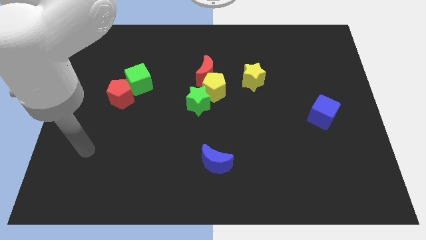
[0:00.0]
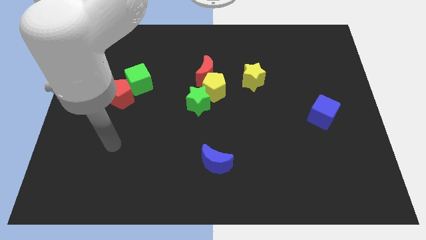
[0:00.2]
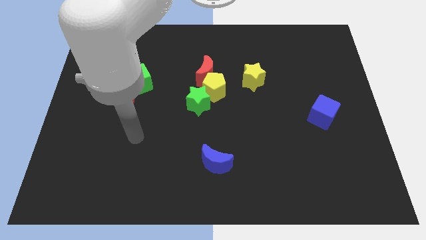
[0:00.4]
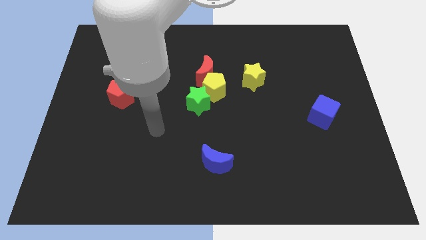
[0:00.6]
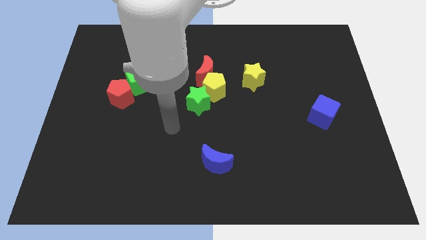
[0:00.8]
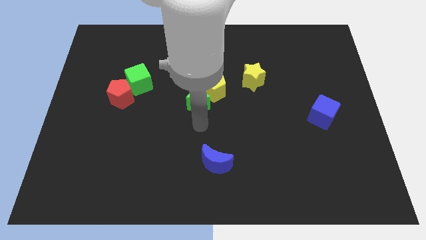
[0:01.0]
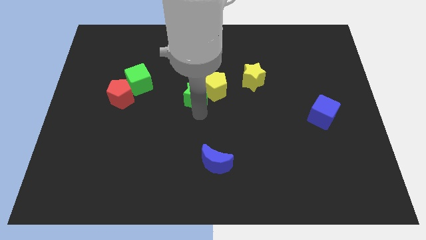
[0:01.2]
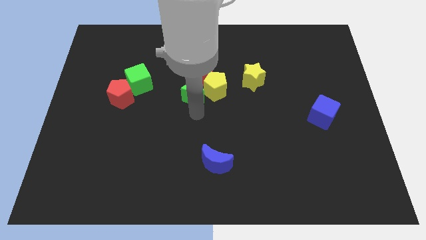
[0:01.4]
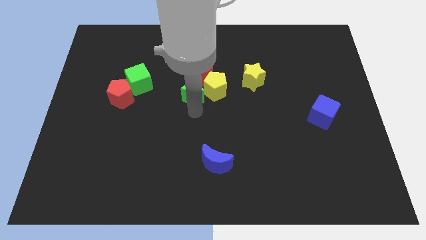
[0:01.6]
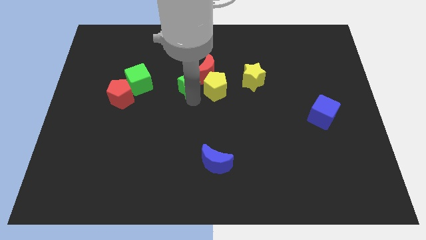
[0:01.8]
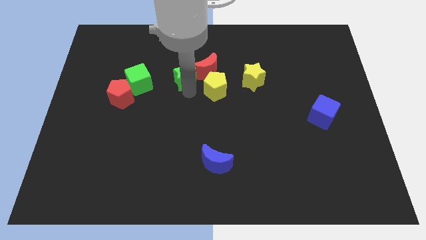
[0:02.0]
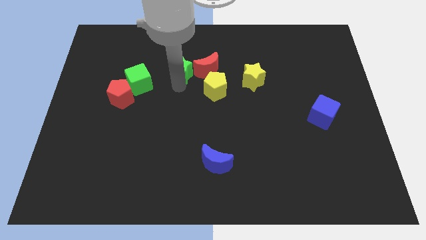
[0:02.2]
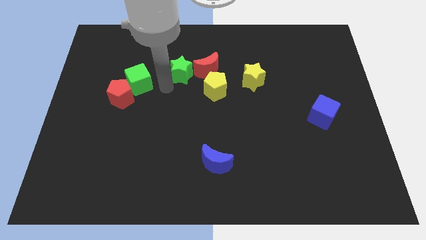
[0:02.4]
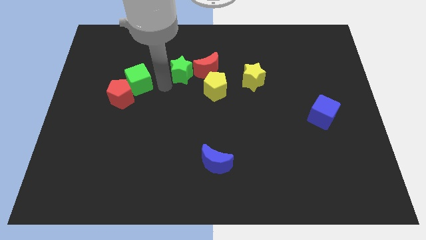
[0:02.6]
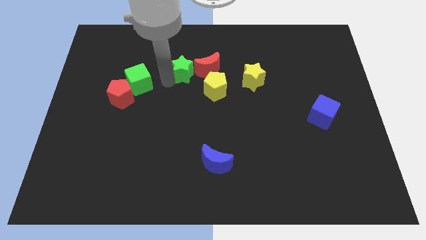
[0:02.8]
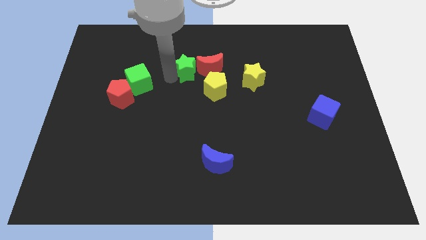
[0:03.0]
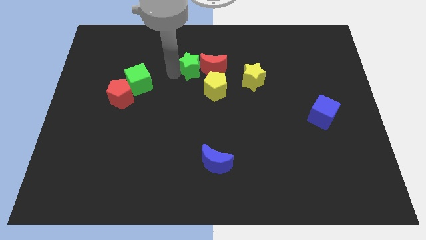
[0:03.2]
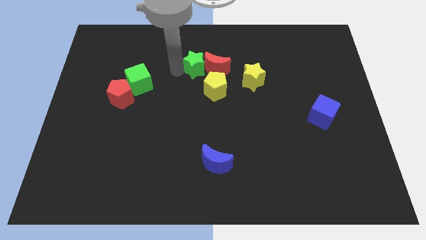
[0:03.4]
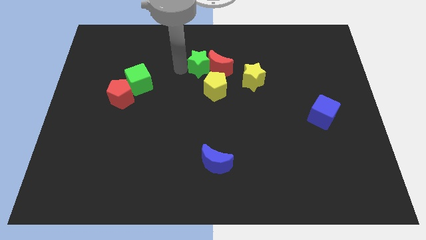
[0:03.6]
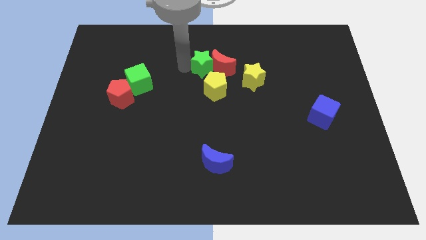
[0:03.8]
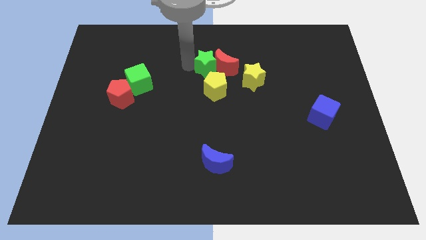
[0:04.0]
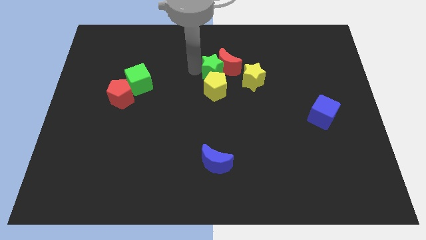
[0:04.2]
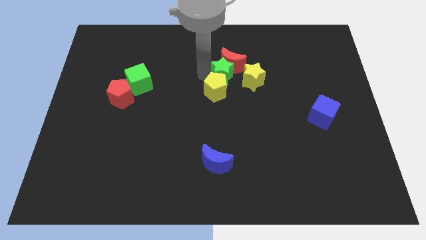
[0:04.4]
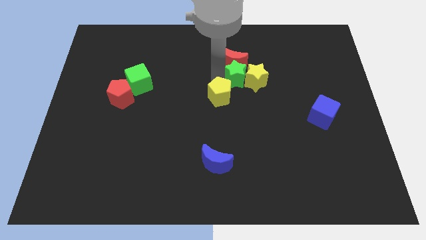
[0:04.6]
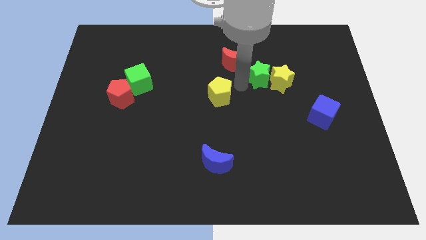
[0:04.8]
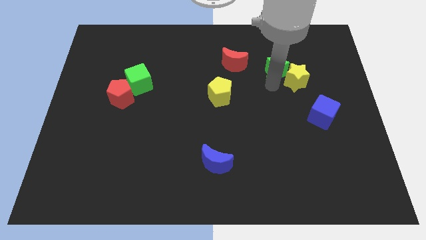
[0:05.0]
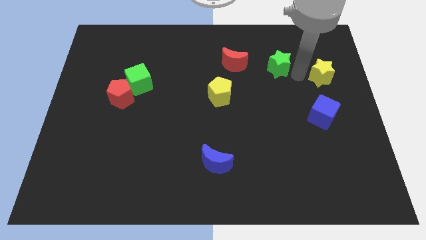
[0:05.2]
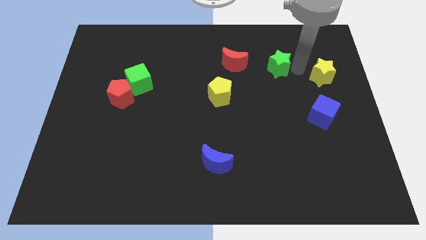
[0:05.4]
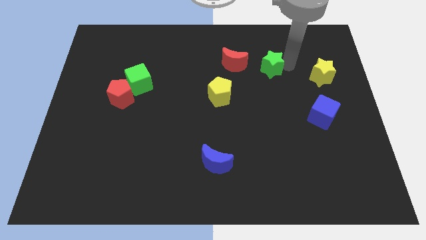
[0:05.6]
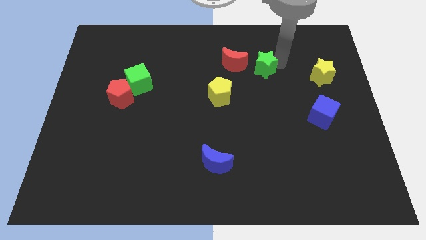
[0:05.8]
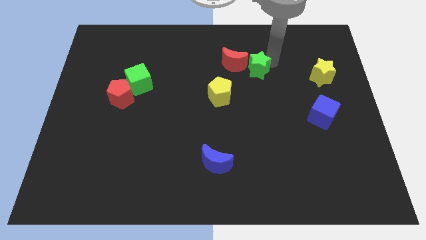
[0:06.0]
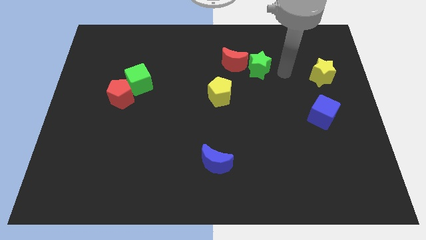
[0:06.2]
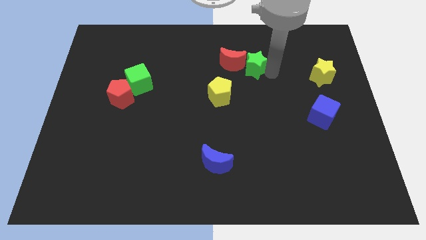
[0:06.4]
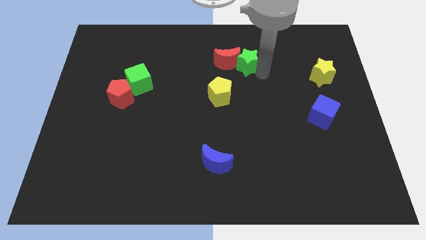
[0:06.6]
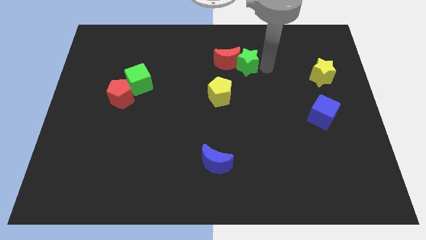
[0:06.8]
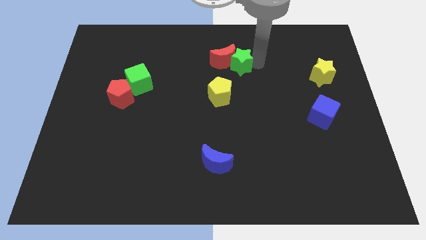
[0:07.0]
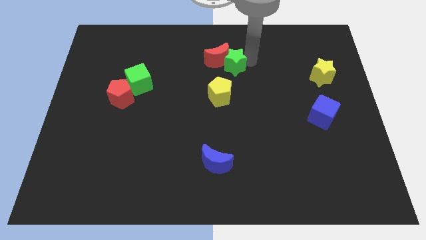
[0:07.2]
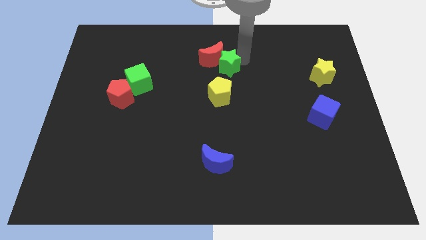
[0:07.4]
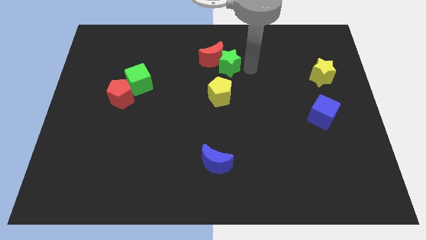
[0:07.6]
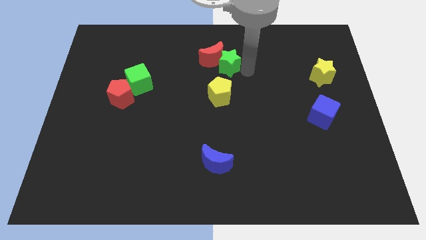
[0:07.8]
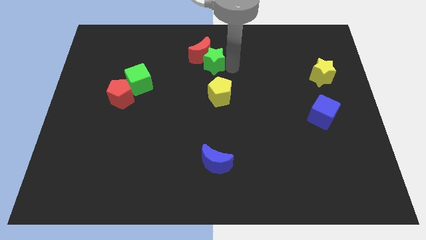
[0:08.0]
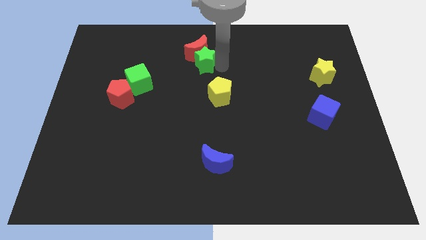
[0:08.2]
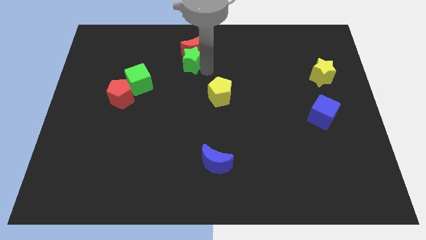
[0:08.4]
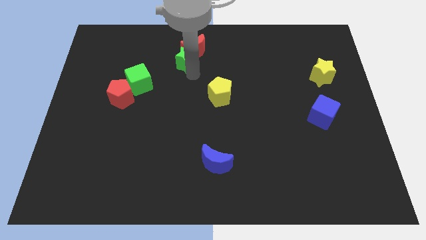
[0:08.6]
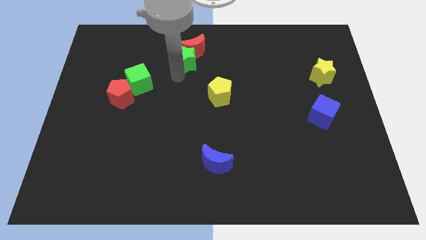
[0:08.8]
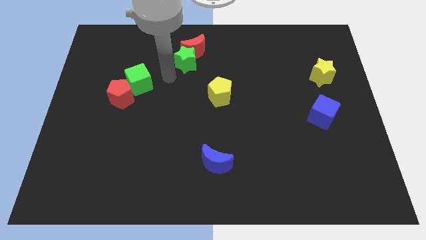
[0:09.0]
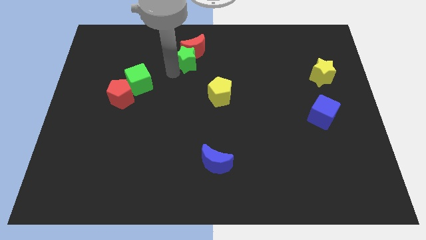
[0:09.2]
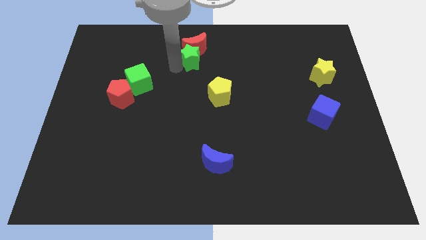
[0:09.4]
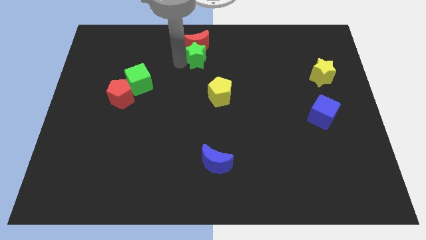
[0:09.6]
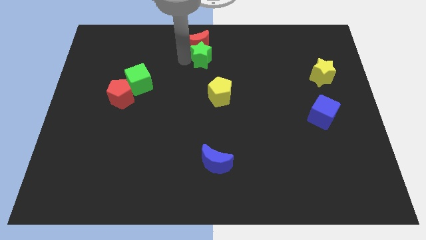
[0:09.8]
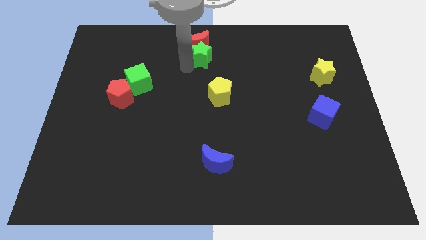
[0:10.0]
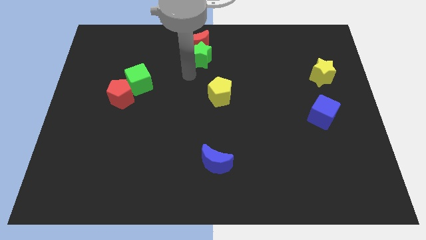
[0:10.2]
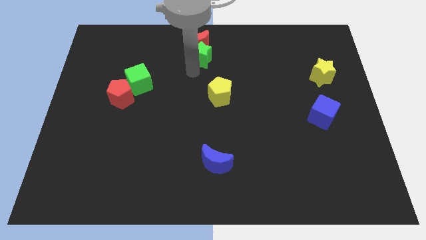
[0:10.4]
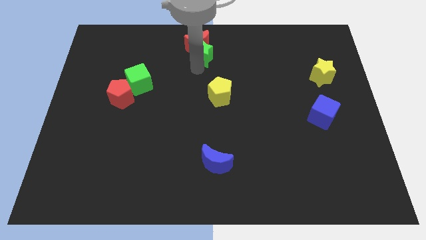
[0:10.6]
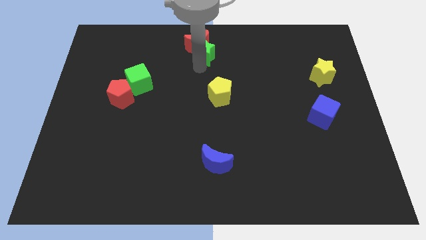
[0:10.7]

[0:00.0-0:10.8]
put the green star to the towards your base

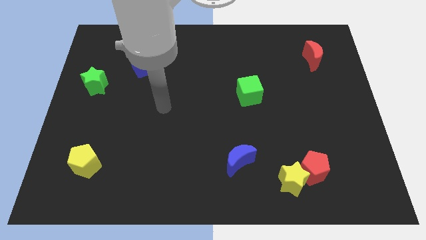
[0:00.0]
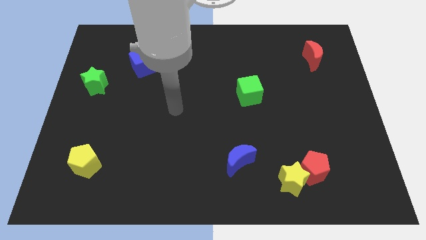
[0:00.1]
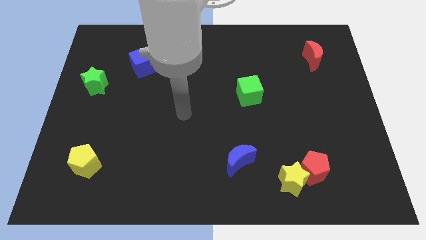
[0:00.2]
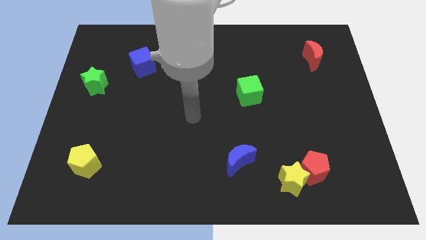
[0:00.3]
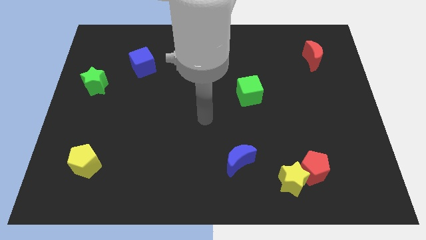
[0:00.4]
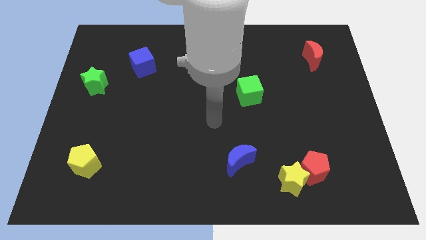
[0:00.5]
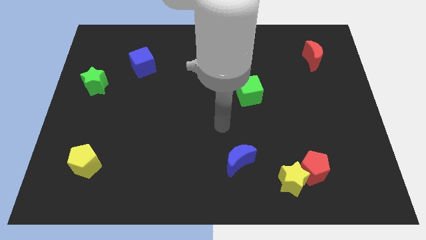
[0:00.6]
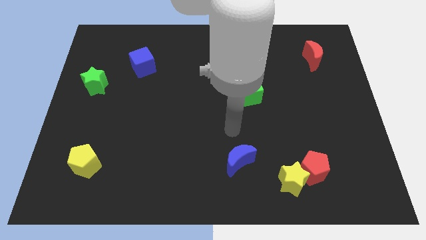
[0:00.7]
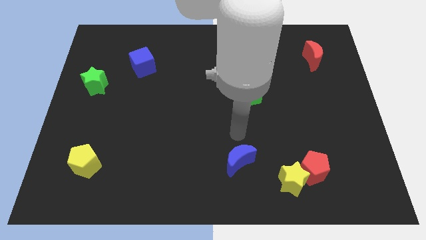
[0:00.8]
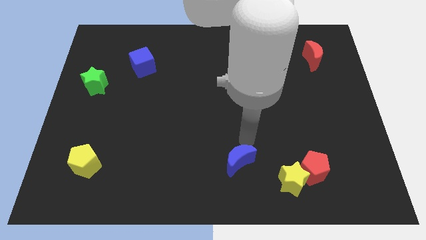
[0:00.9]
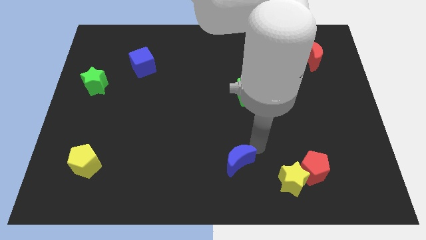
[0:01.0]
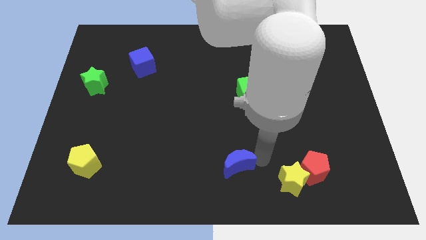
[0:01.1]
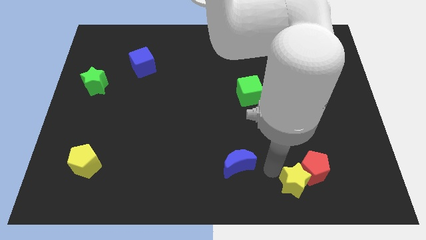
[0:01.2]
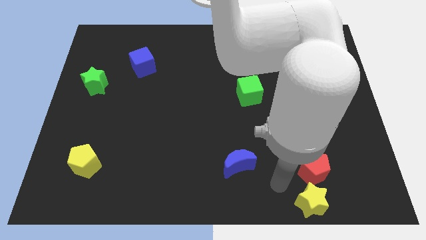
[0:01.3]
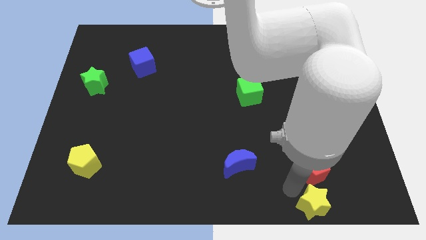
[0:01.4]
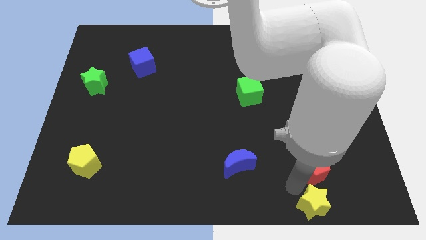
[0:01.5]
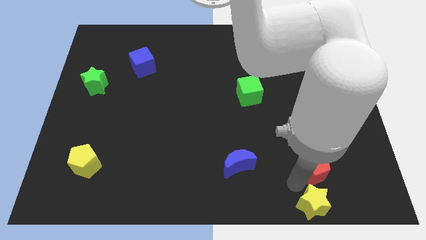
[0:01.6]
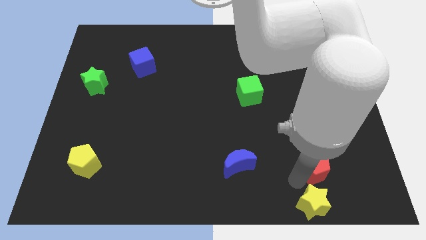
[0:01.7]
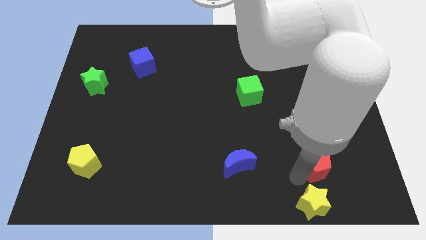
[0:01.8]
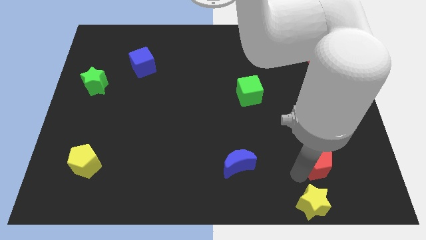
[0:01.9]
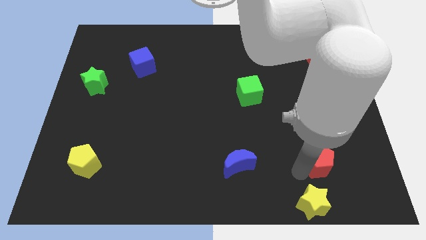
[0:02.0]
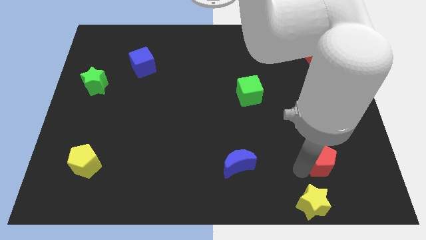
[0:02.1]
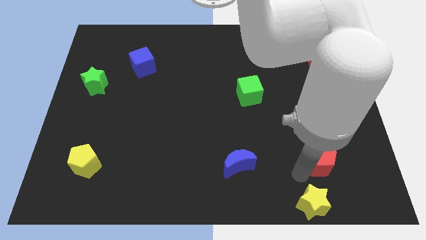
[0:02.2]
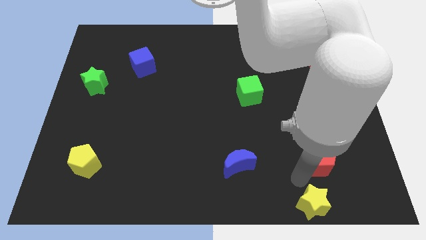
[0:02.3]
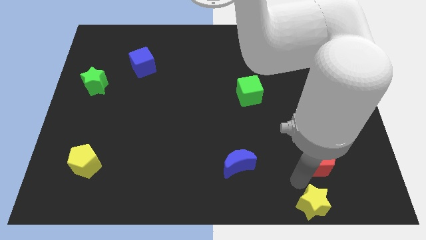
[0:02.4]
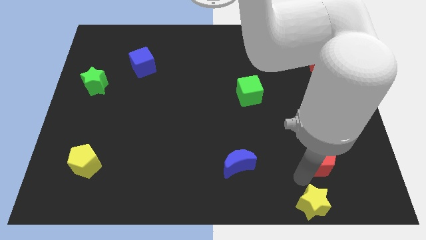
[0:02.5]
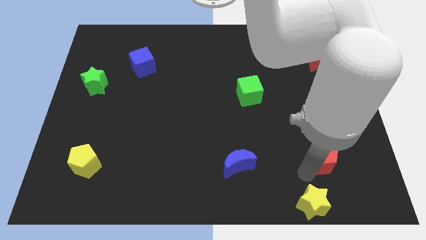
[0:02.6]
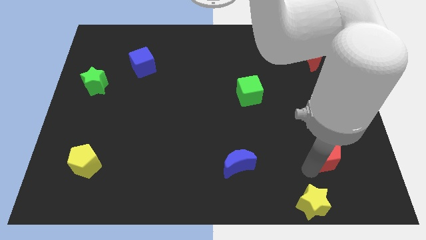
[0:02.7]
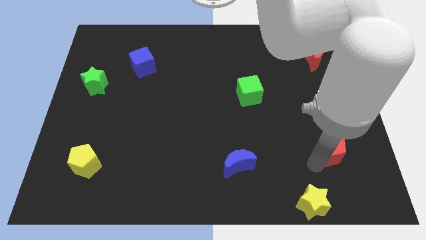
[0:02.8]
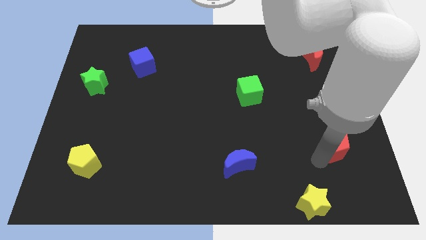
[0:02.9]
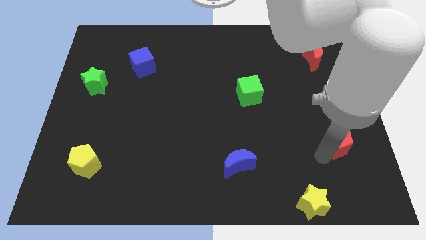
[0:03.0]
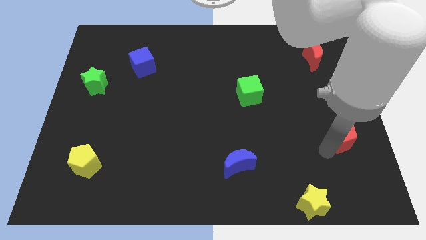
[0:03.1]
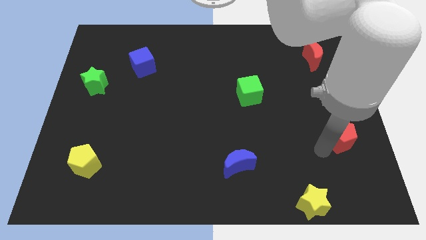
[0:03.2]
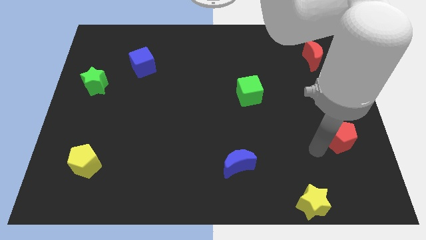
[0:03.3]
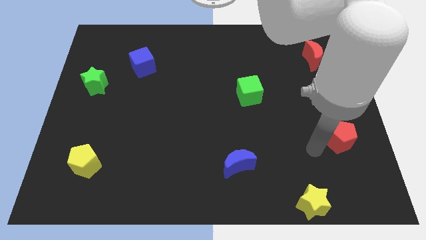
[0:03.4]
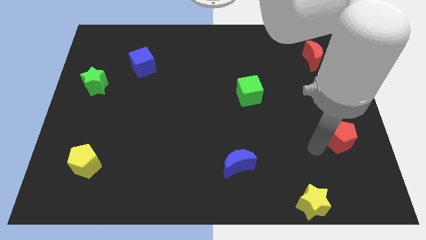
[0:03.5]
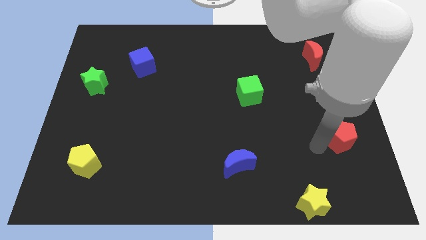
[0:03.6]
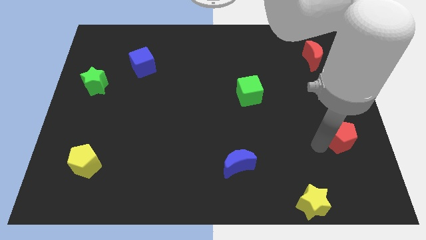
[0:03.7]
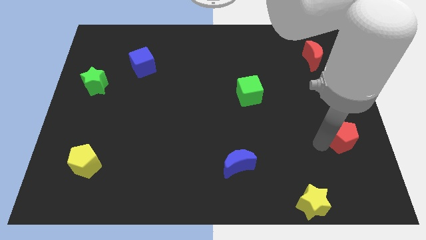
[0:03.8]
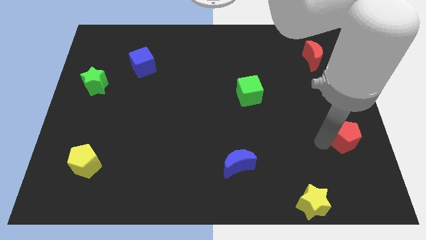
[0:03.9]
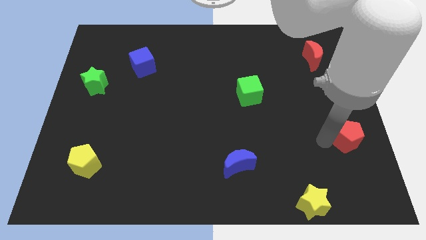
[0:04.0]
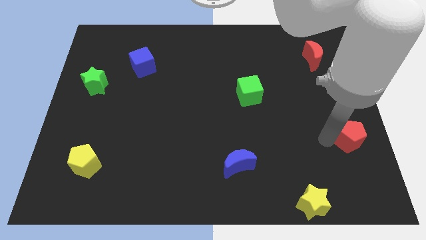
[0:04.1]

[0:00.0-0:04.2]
move the red pentagon to the right side
